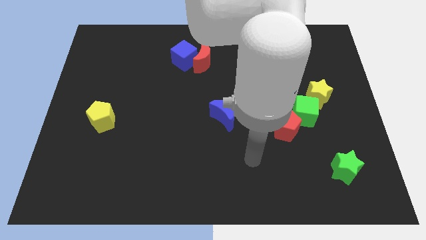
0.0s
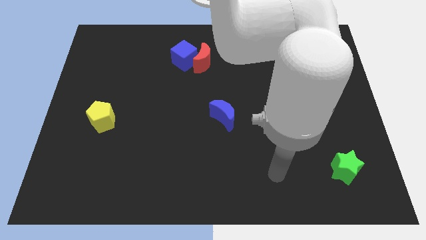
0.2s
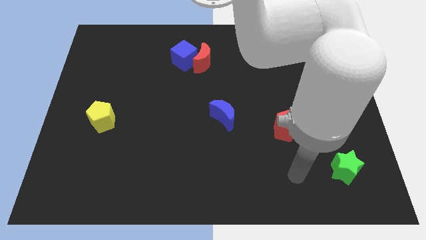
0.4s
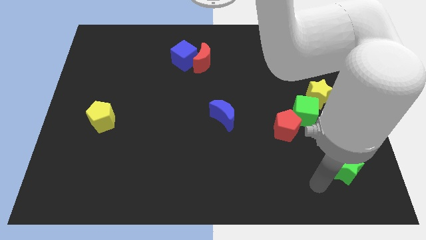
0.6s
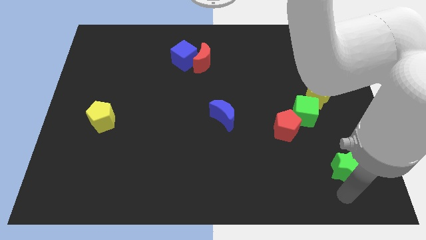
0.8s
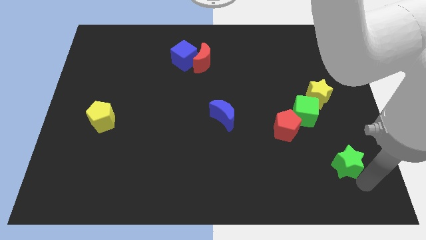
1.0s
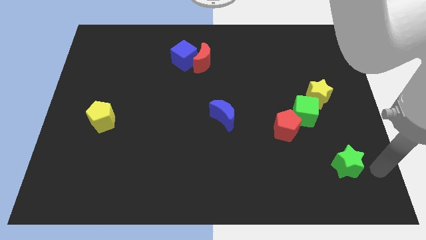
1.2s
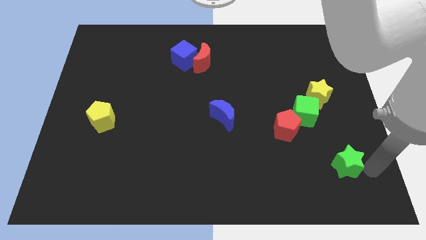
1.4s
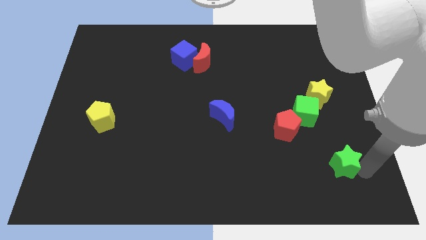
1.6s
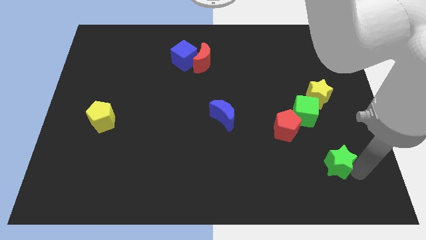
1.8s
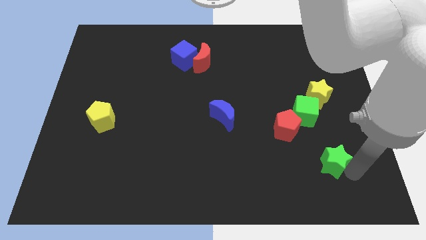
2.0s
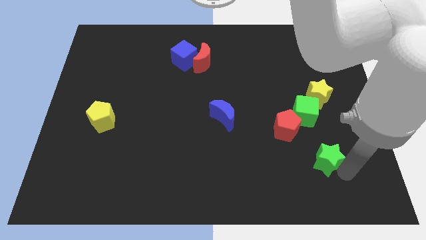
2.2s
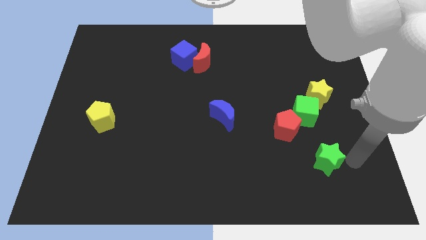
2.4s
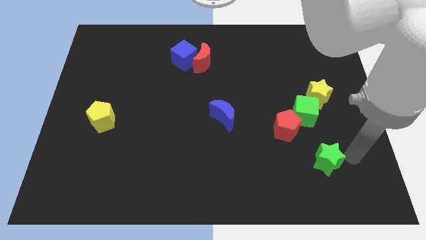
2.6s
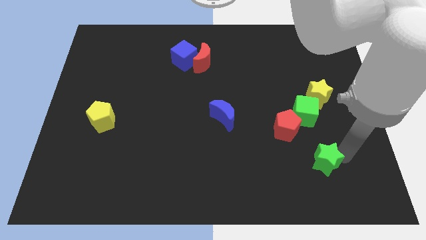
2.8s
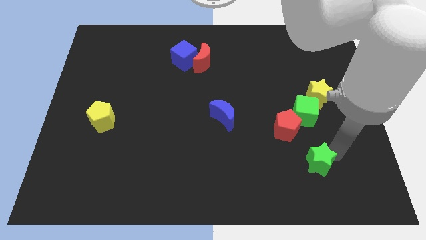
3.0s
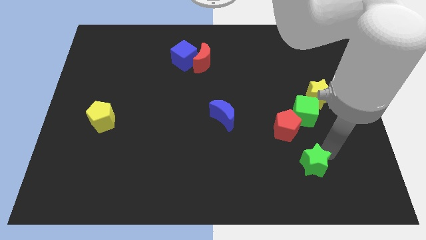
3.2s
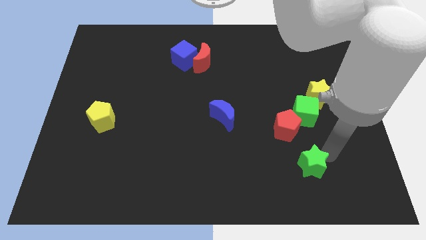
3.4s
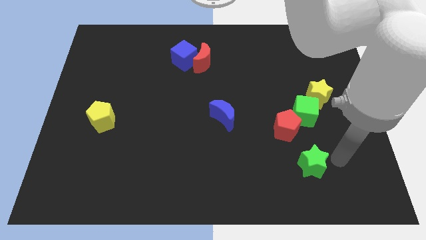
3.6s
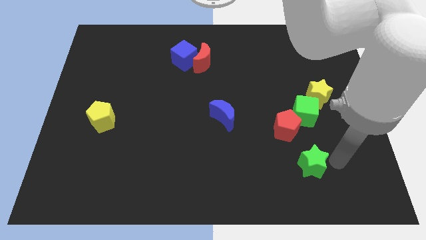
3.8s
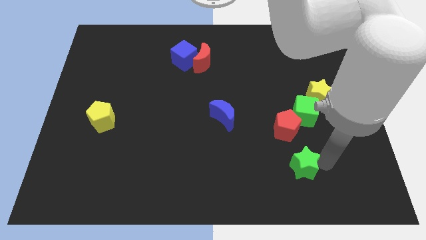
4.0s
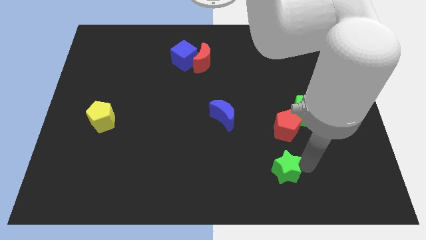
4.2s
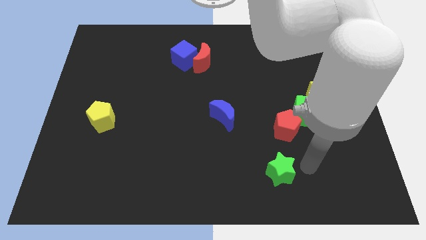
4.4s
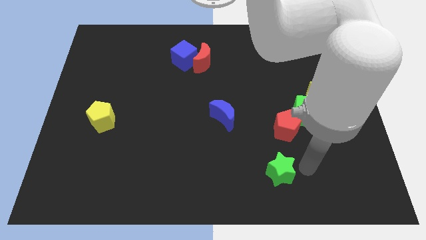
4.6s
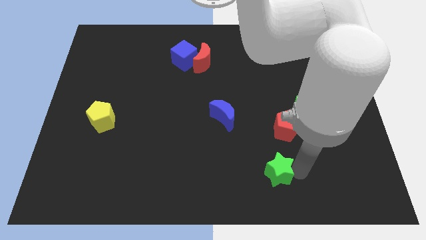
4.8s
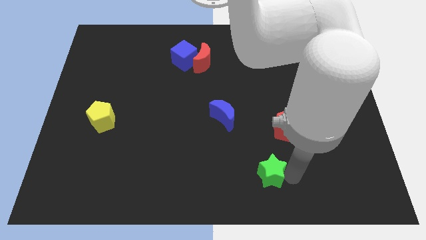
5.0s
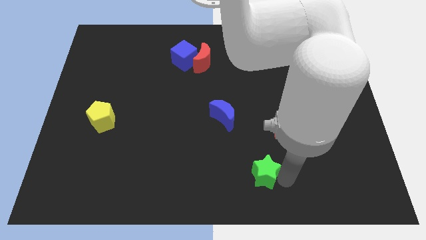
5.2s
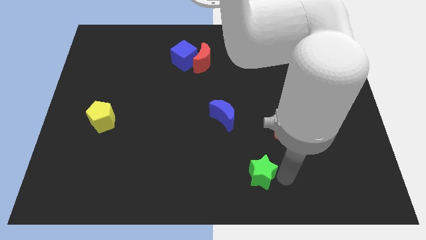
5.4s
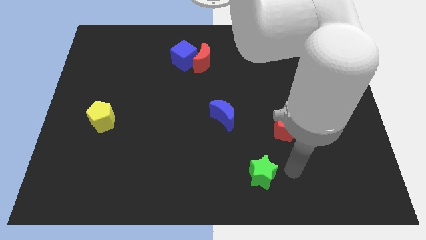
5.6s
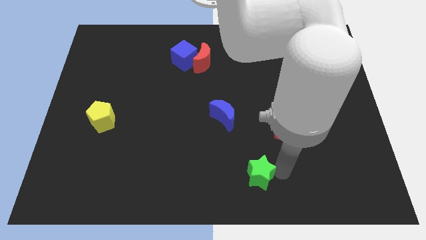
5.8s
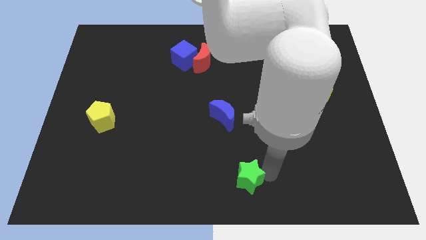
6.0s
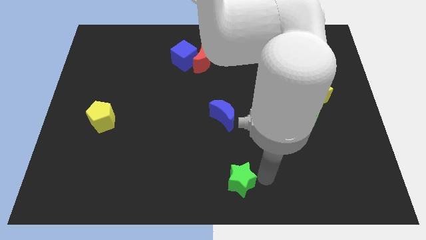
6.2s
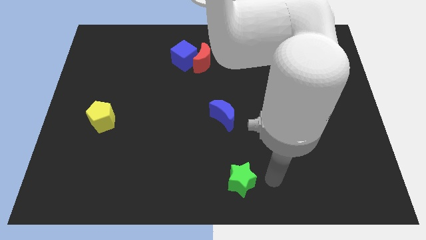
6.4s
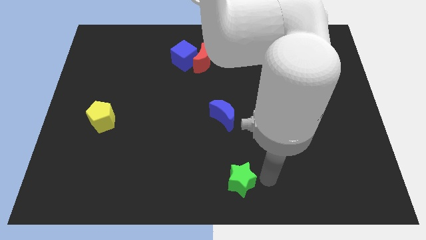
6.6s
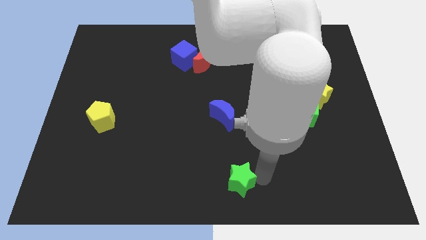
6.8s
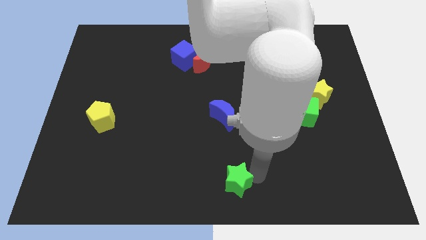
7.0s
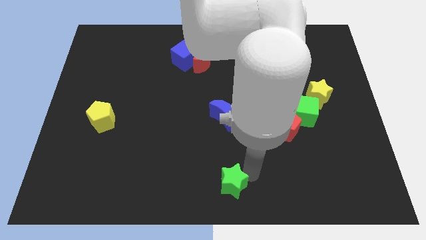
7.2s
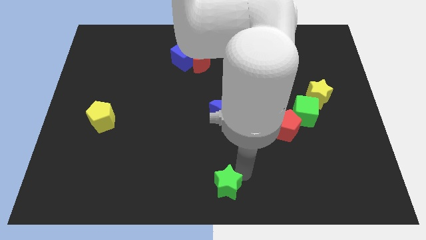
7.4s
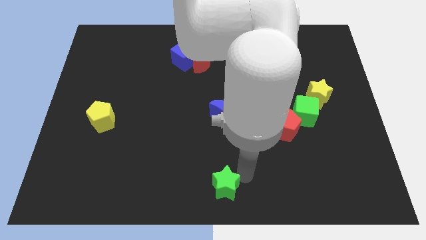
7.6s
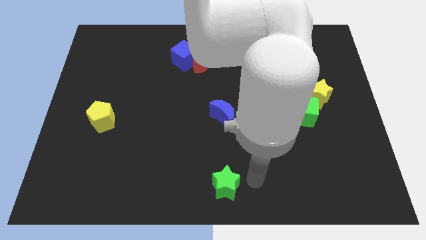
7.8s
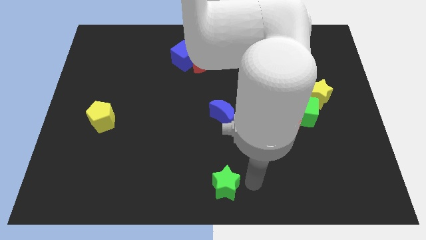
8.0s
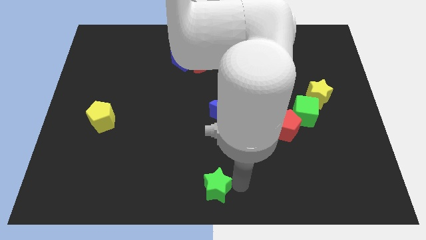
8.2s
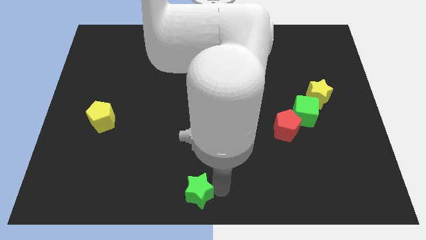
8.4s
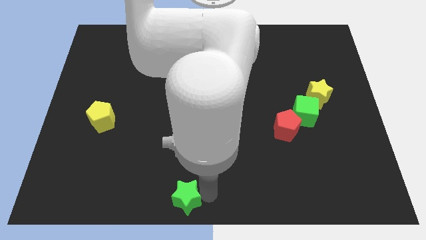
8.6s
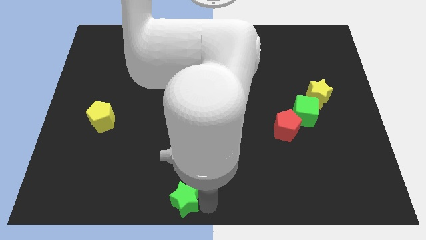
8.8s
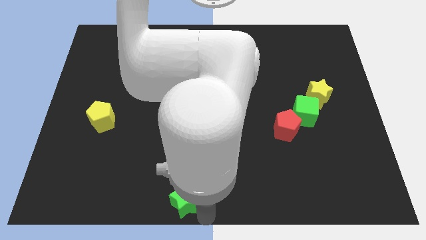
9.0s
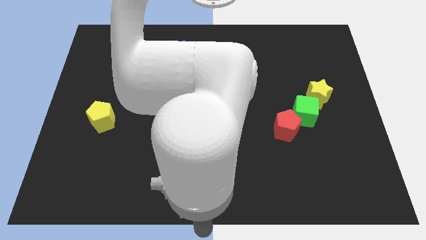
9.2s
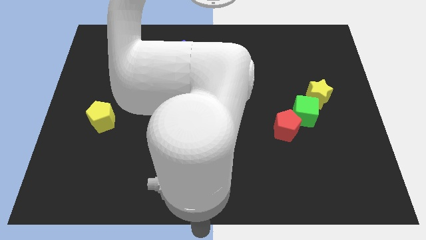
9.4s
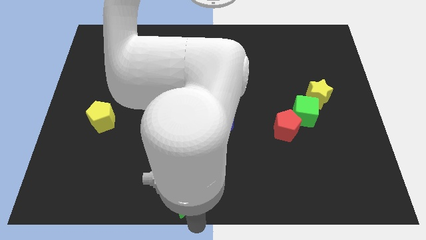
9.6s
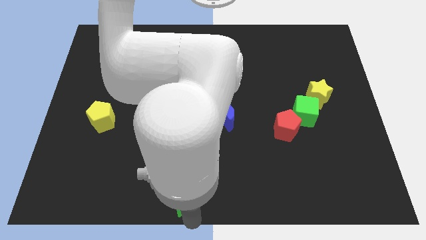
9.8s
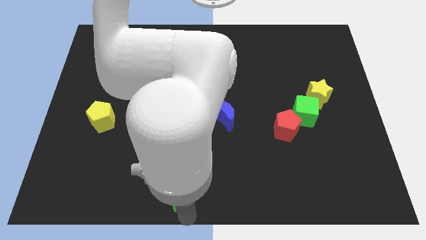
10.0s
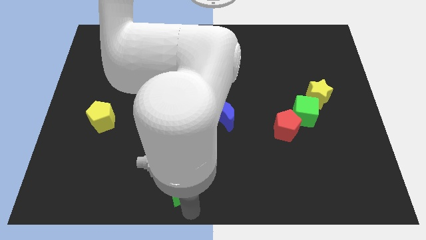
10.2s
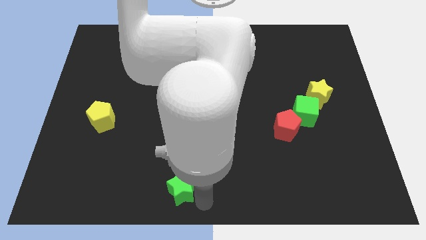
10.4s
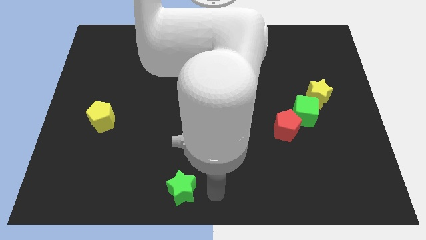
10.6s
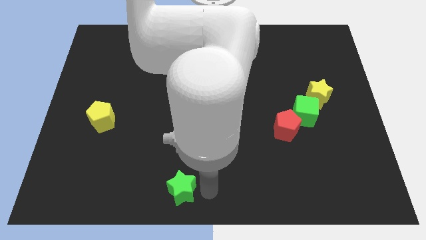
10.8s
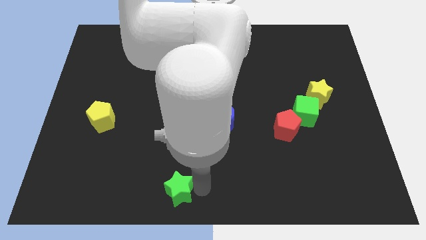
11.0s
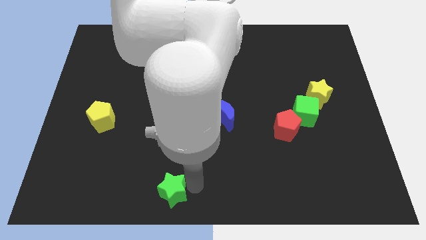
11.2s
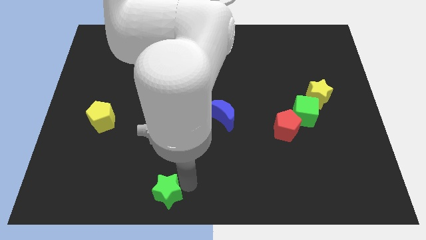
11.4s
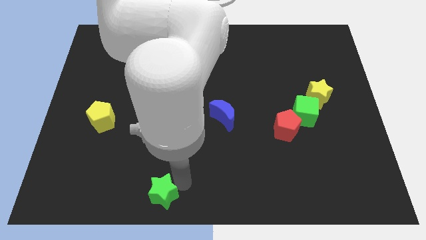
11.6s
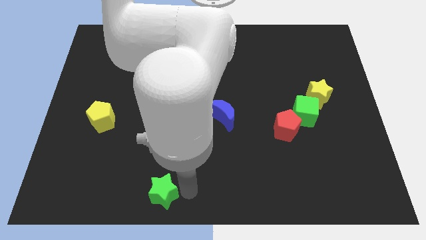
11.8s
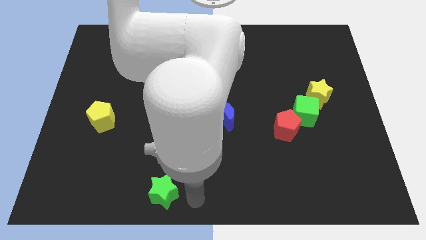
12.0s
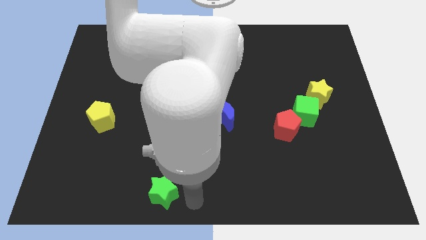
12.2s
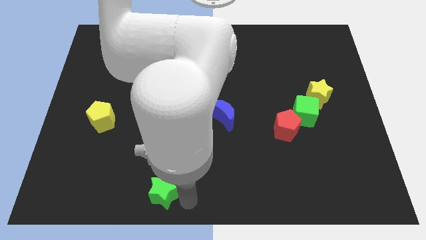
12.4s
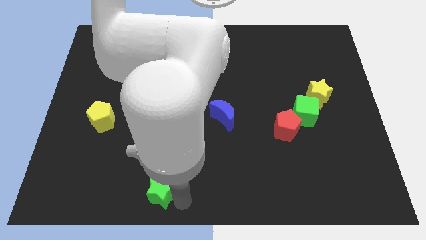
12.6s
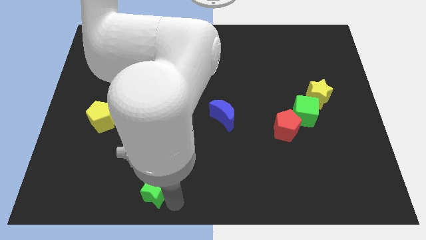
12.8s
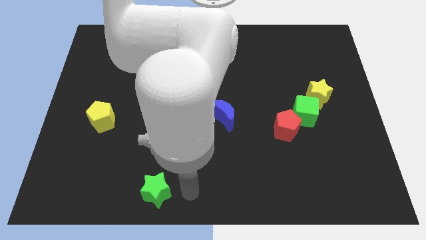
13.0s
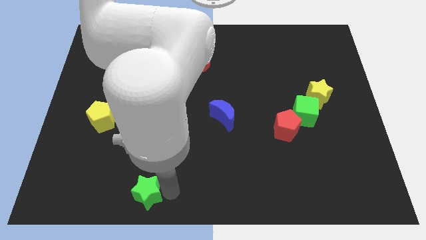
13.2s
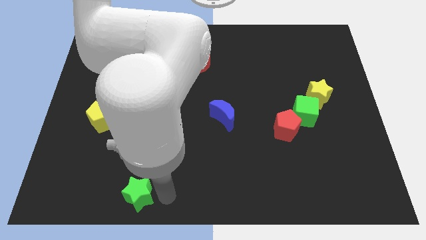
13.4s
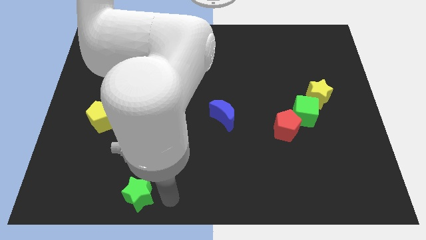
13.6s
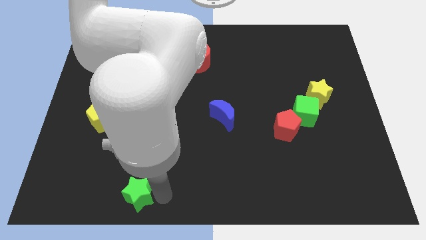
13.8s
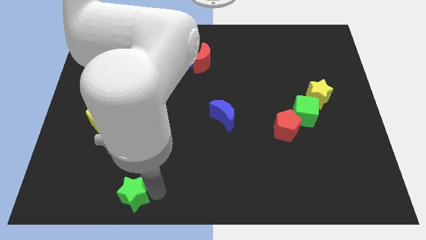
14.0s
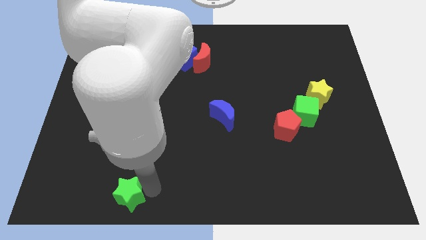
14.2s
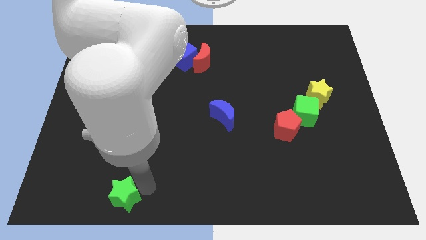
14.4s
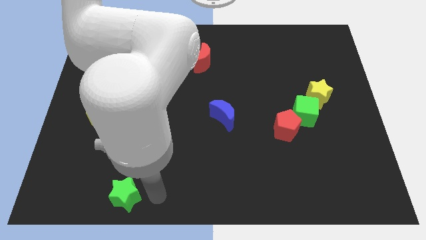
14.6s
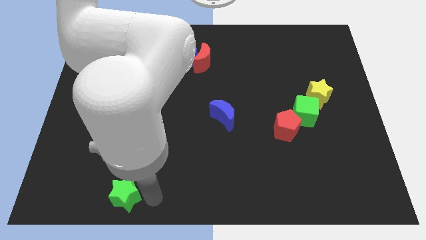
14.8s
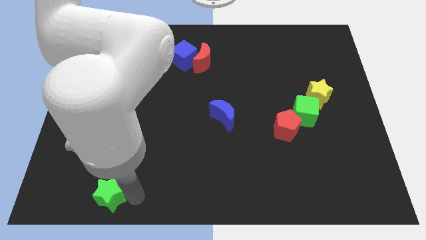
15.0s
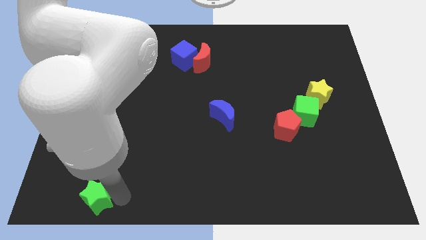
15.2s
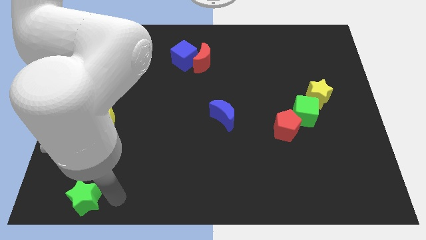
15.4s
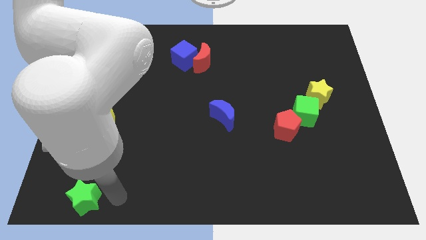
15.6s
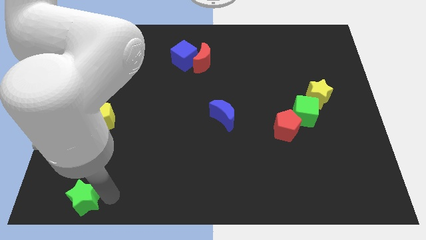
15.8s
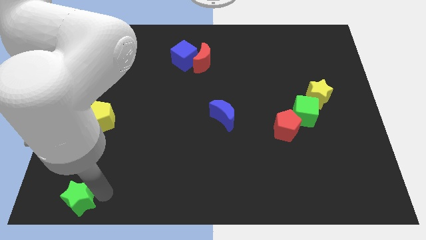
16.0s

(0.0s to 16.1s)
slide the green star to the bottom left
